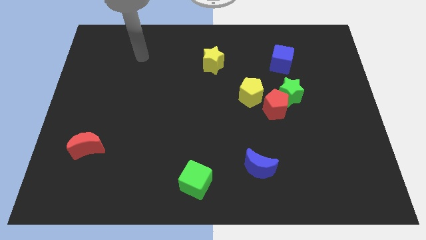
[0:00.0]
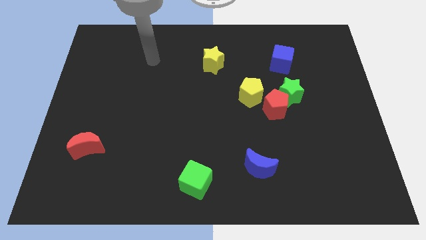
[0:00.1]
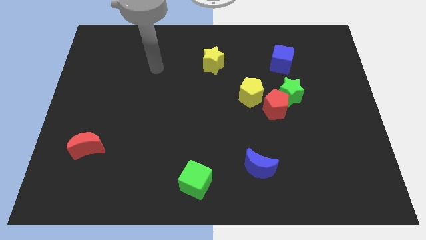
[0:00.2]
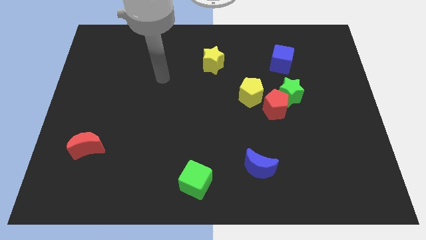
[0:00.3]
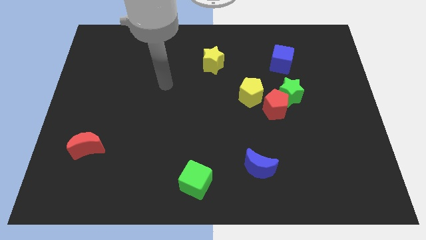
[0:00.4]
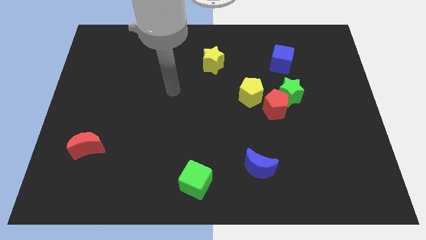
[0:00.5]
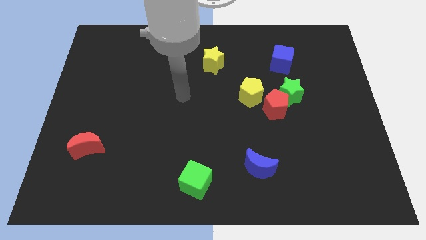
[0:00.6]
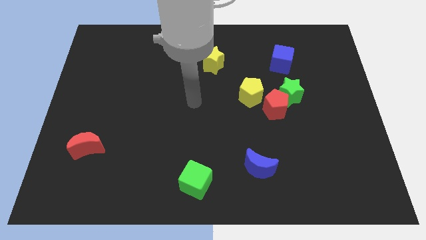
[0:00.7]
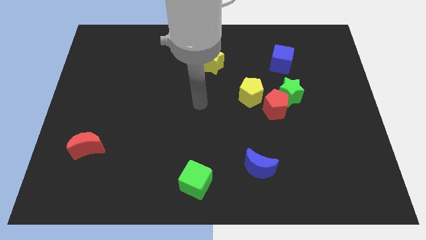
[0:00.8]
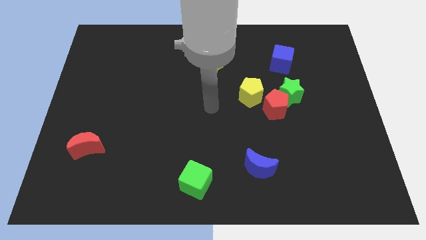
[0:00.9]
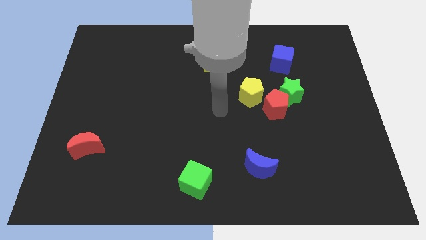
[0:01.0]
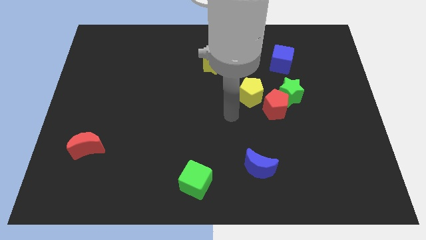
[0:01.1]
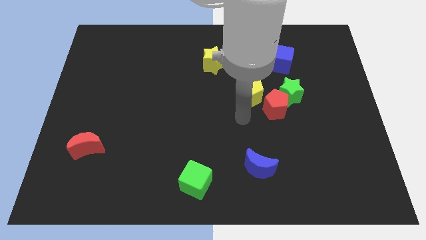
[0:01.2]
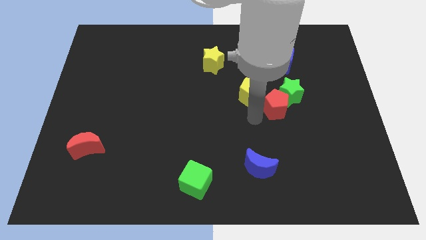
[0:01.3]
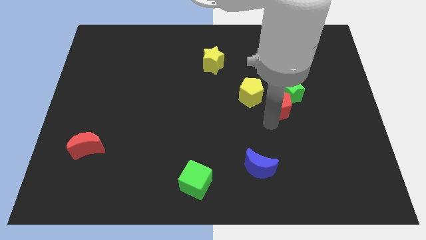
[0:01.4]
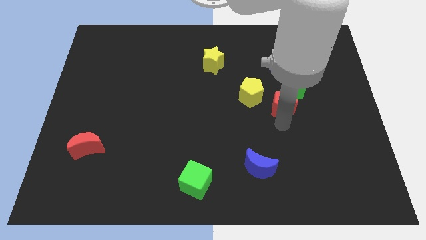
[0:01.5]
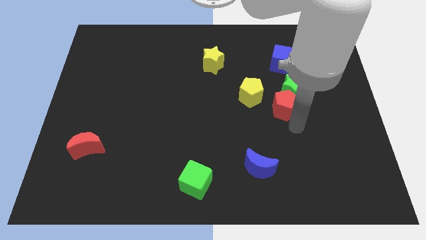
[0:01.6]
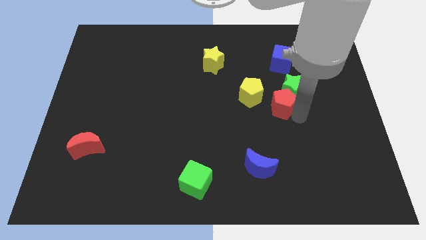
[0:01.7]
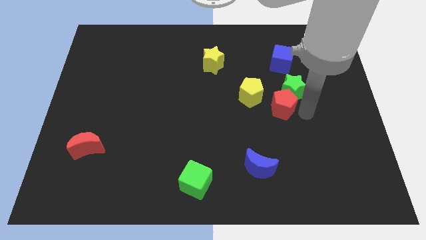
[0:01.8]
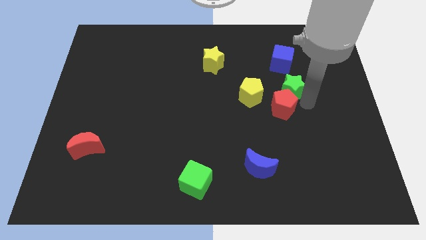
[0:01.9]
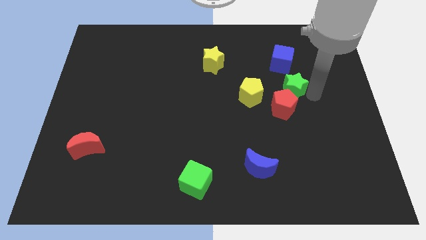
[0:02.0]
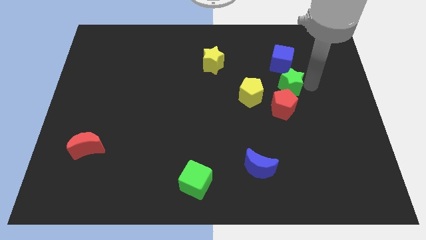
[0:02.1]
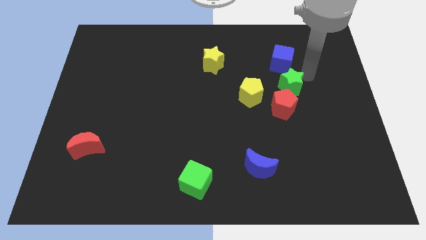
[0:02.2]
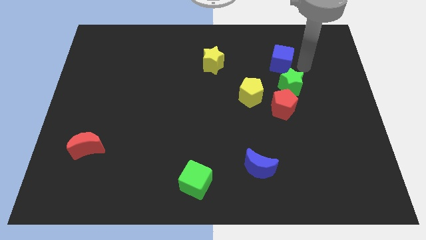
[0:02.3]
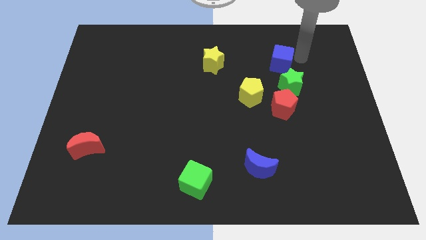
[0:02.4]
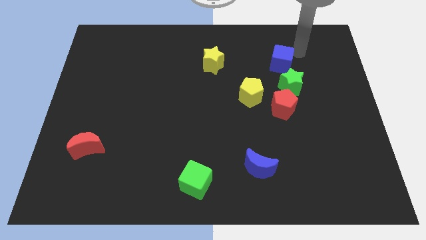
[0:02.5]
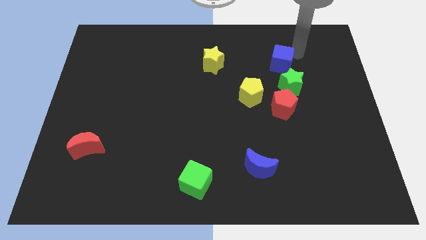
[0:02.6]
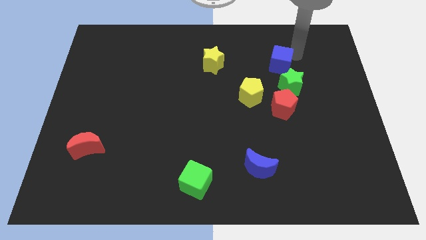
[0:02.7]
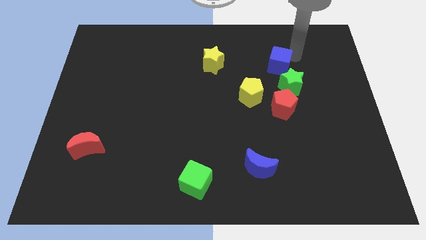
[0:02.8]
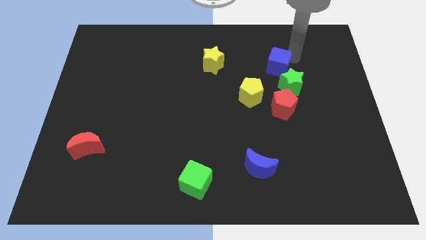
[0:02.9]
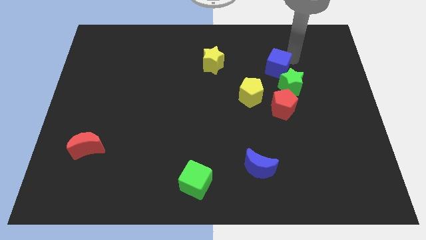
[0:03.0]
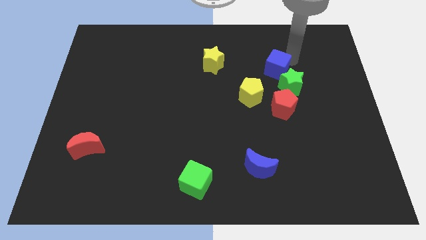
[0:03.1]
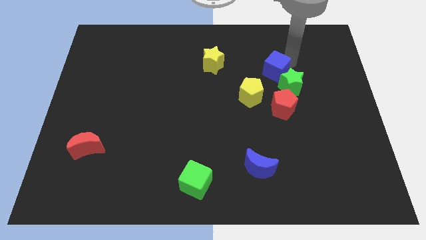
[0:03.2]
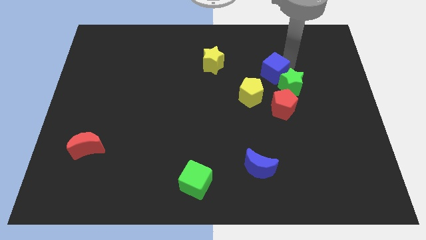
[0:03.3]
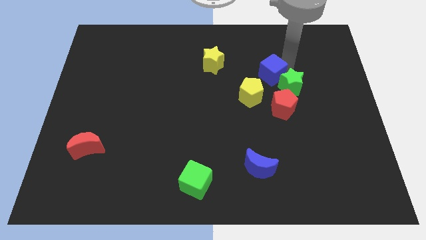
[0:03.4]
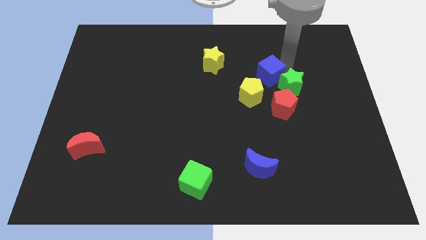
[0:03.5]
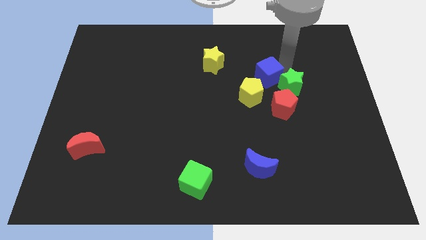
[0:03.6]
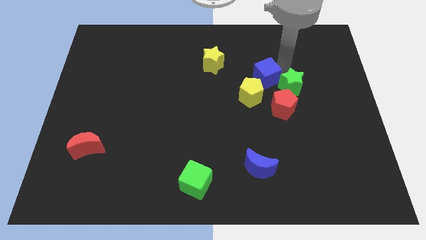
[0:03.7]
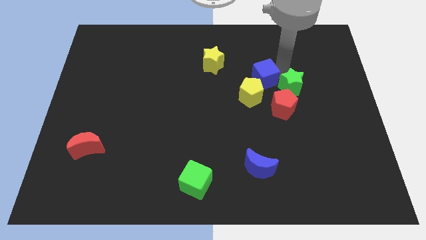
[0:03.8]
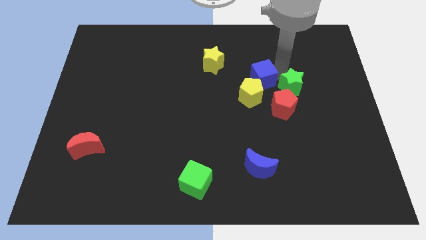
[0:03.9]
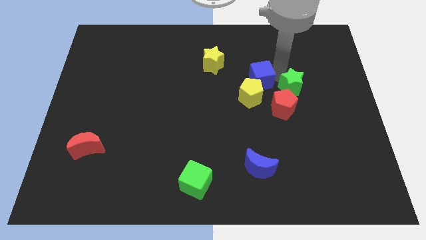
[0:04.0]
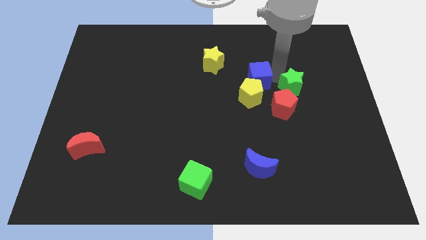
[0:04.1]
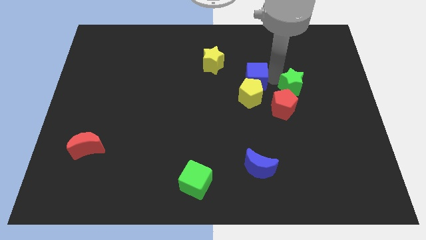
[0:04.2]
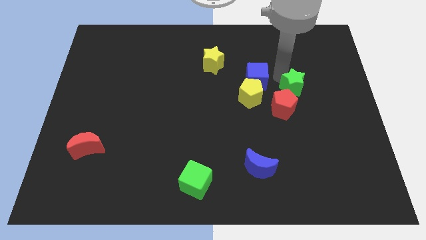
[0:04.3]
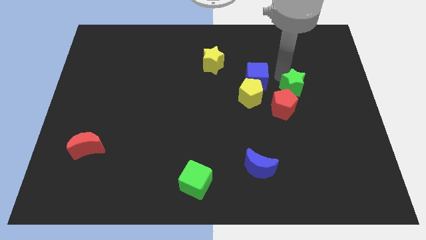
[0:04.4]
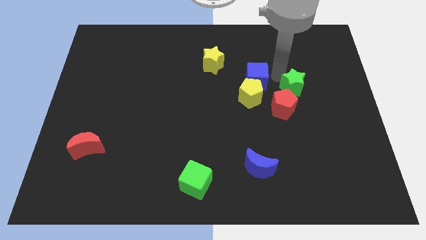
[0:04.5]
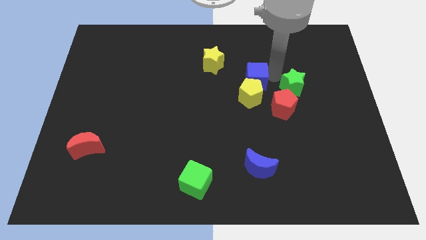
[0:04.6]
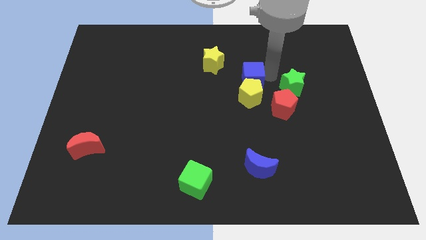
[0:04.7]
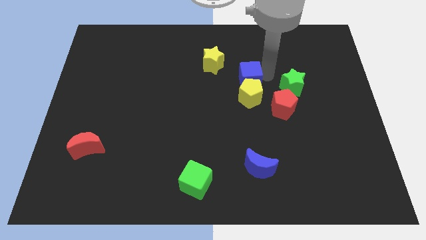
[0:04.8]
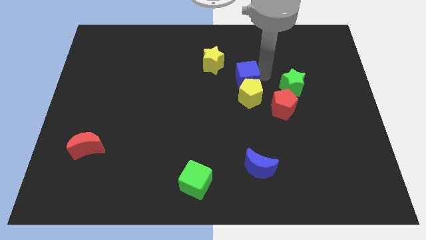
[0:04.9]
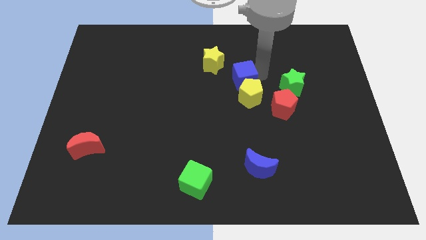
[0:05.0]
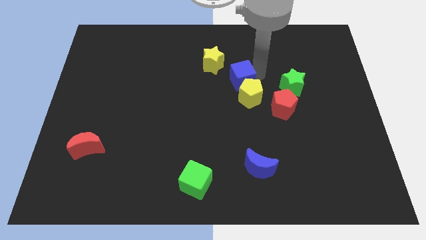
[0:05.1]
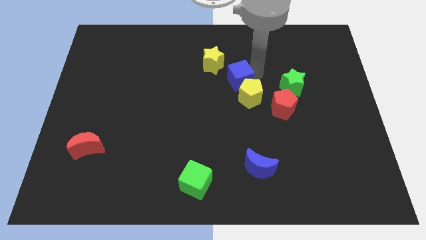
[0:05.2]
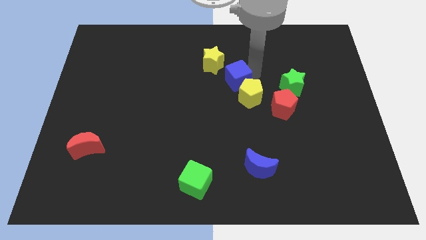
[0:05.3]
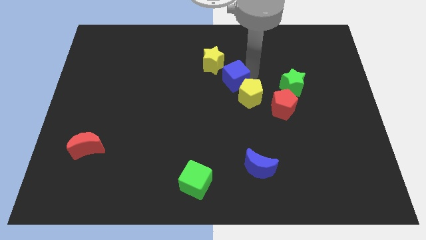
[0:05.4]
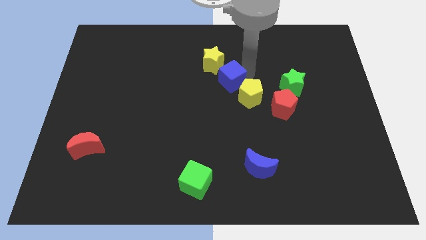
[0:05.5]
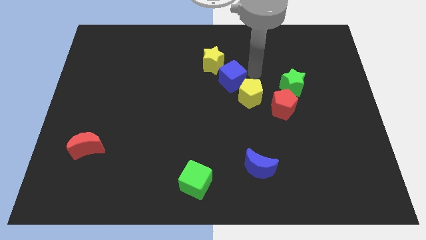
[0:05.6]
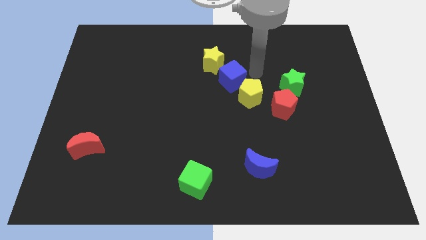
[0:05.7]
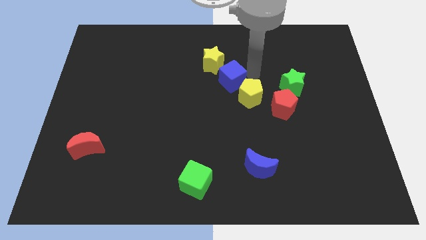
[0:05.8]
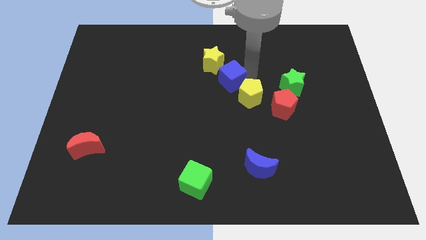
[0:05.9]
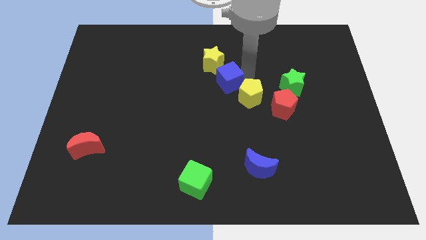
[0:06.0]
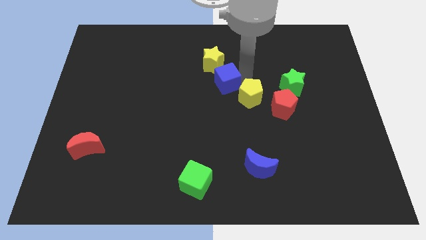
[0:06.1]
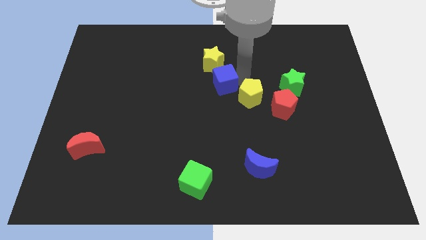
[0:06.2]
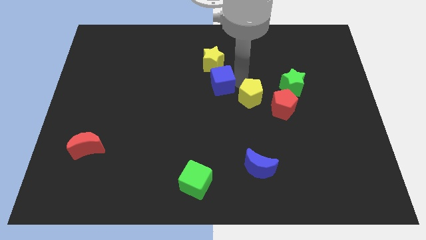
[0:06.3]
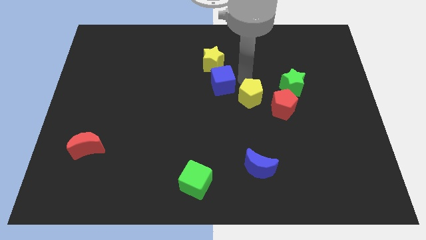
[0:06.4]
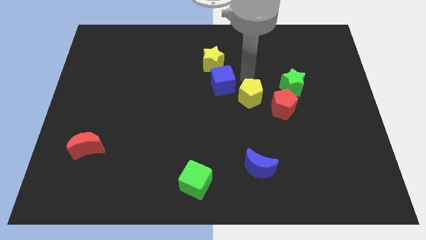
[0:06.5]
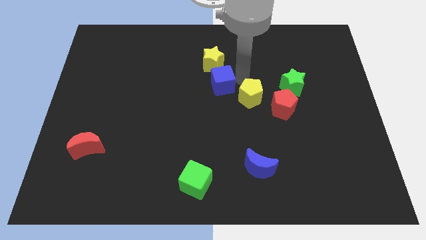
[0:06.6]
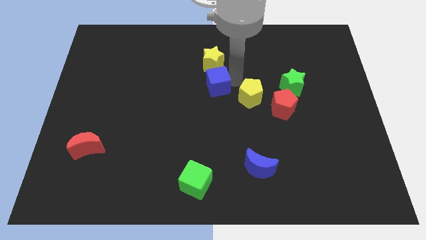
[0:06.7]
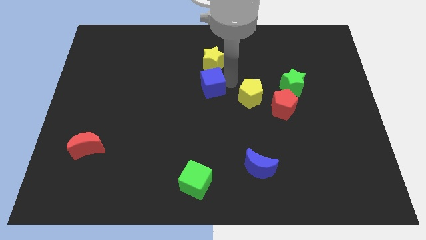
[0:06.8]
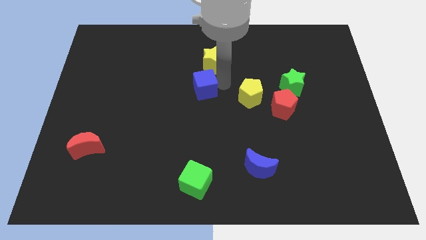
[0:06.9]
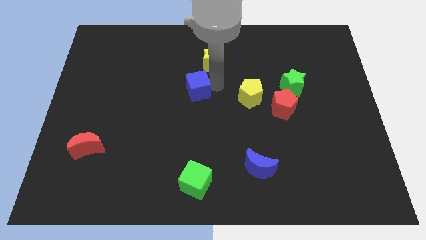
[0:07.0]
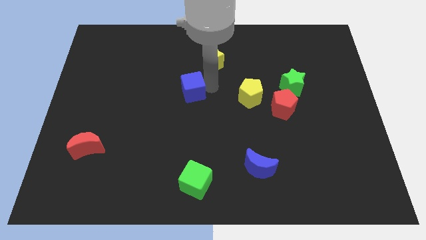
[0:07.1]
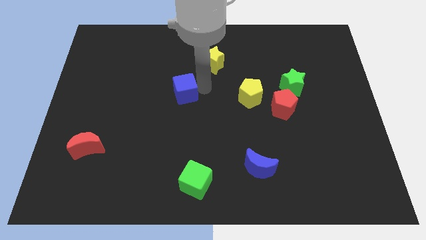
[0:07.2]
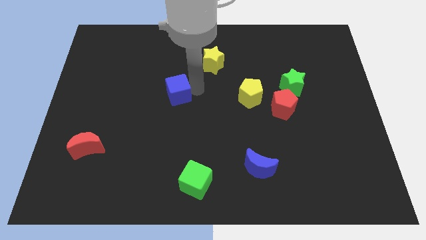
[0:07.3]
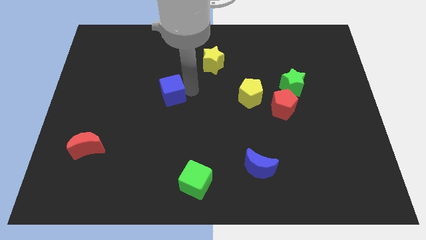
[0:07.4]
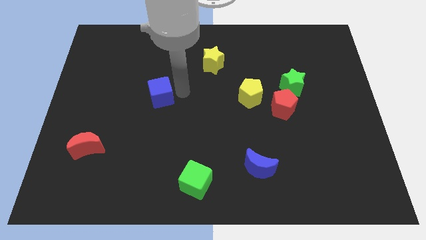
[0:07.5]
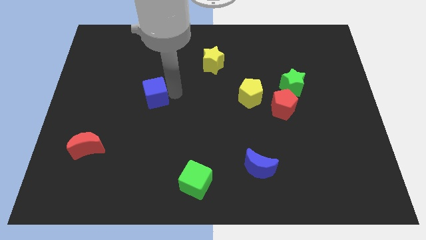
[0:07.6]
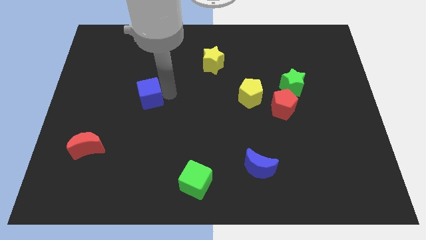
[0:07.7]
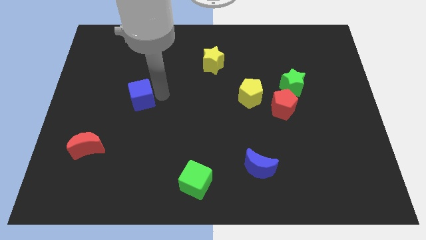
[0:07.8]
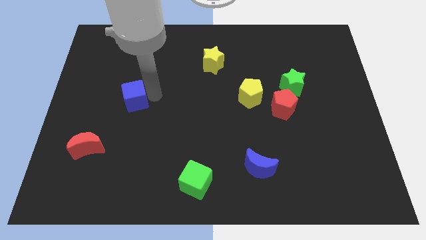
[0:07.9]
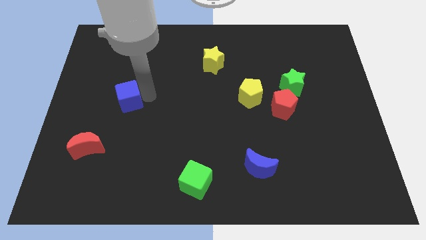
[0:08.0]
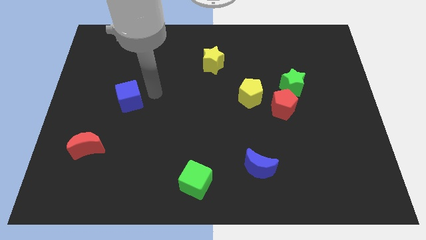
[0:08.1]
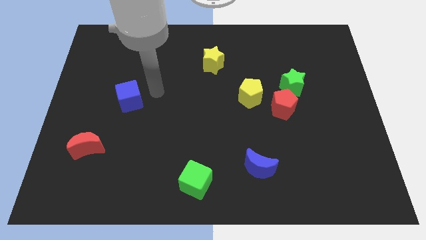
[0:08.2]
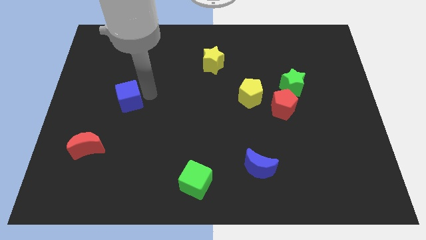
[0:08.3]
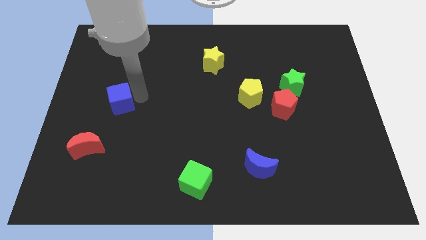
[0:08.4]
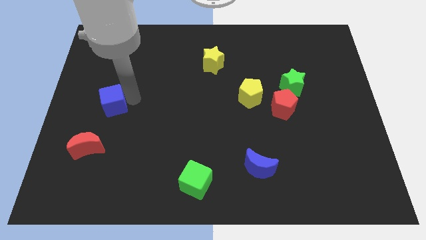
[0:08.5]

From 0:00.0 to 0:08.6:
slide the blue cube above the red moon
